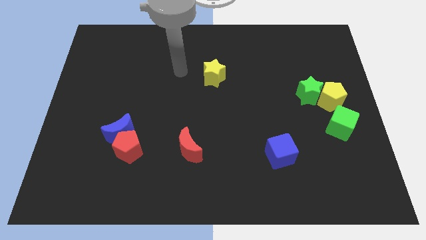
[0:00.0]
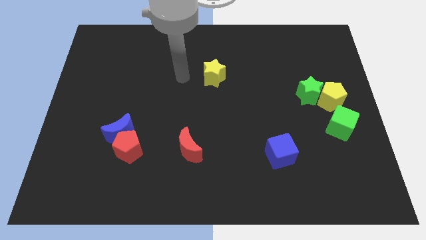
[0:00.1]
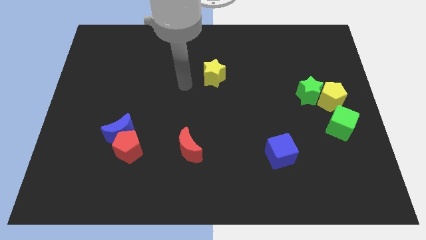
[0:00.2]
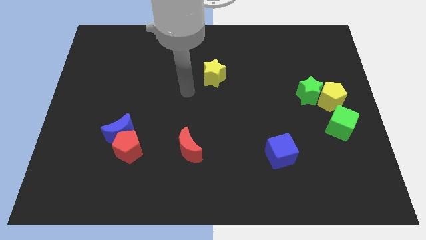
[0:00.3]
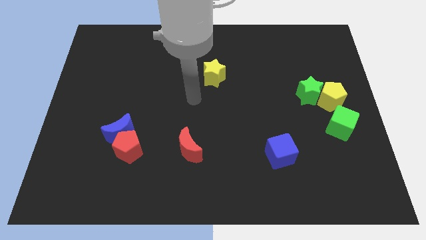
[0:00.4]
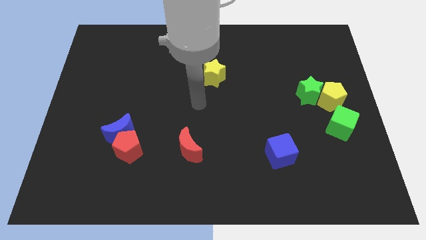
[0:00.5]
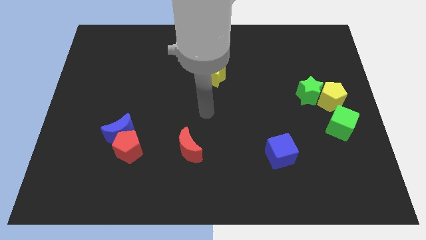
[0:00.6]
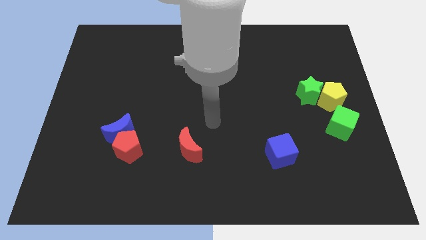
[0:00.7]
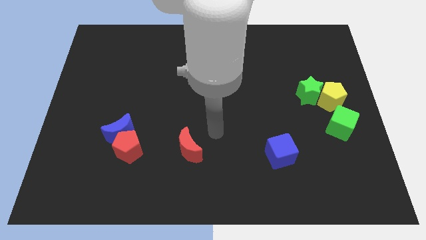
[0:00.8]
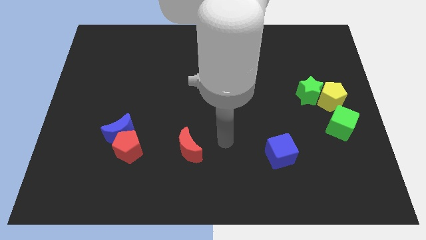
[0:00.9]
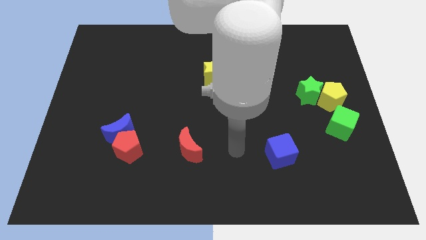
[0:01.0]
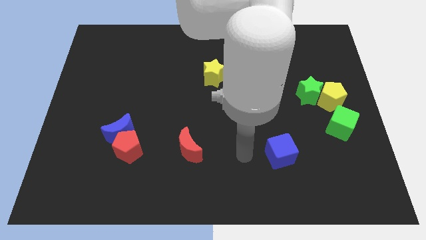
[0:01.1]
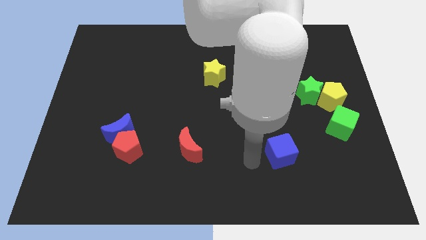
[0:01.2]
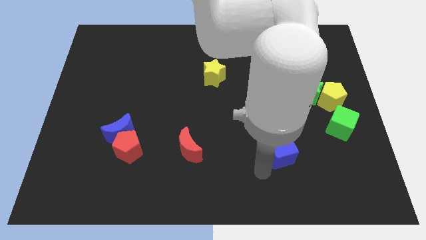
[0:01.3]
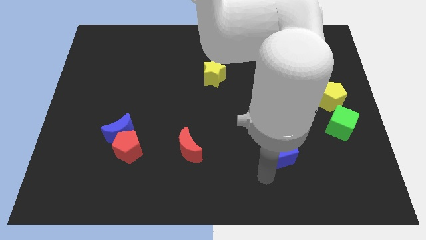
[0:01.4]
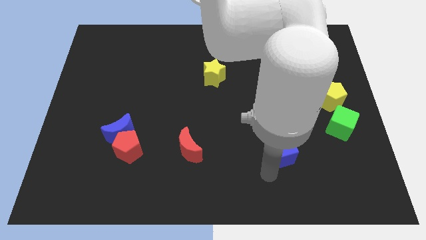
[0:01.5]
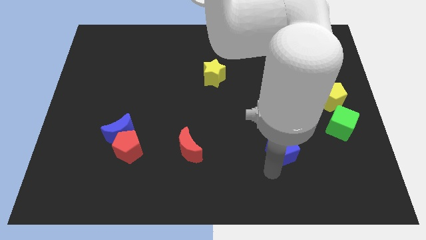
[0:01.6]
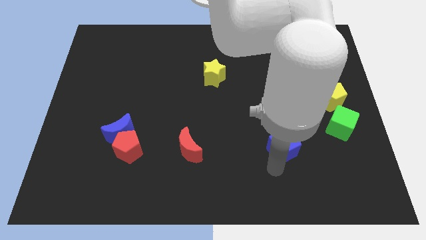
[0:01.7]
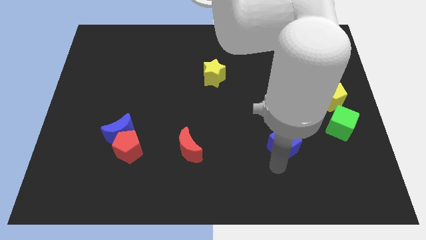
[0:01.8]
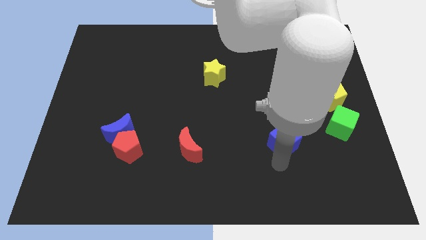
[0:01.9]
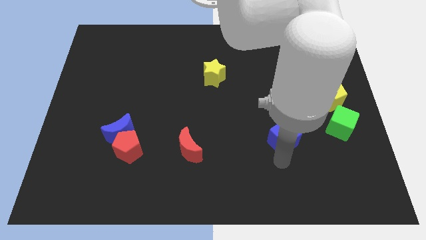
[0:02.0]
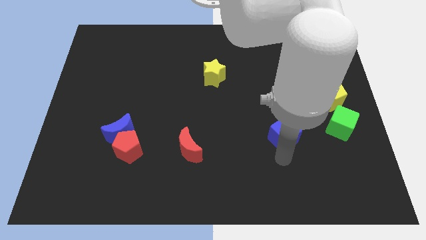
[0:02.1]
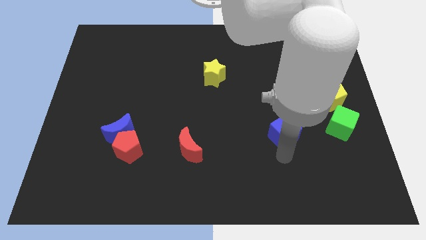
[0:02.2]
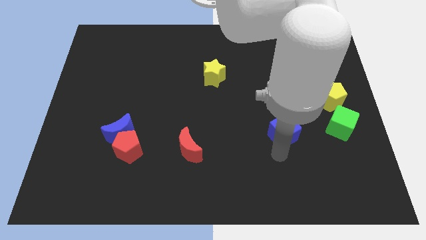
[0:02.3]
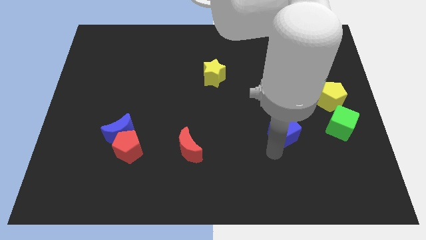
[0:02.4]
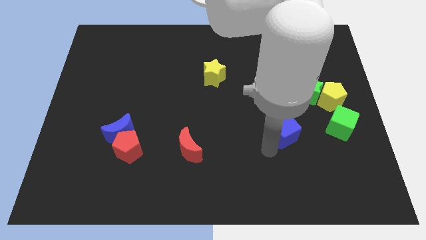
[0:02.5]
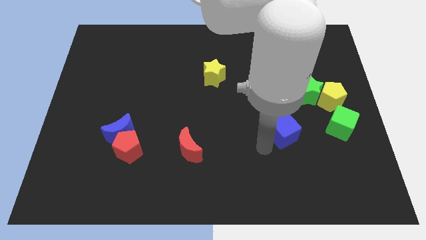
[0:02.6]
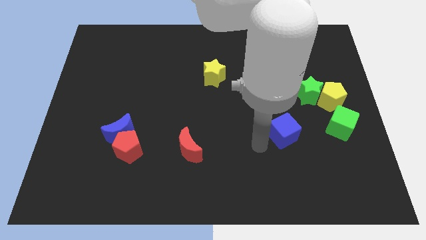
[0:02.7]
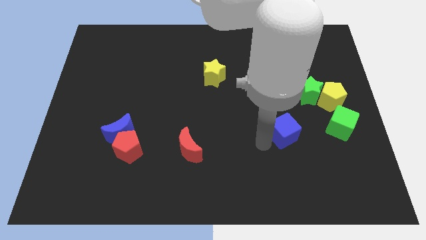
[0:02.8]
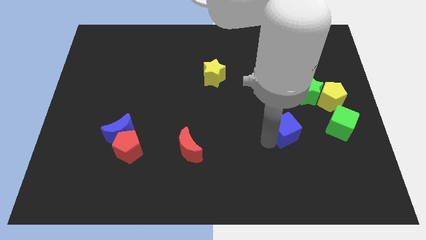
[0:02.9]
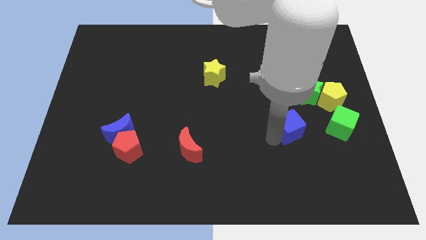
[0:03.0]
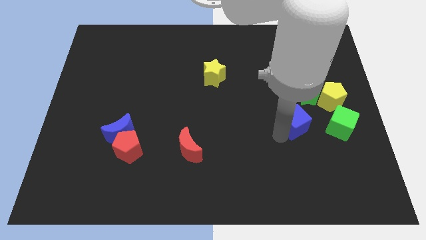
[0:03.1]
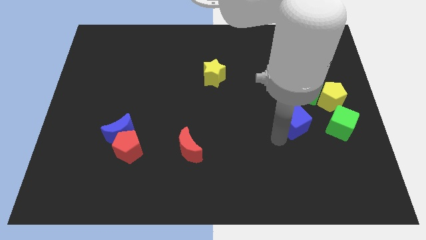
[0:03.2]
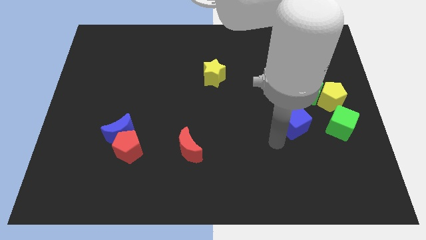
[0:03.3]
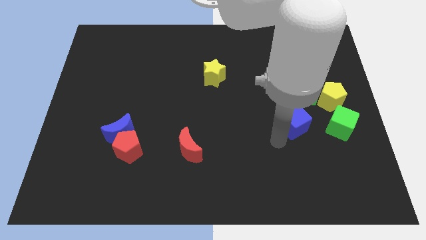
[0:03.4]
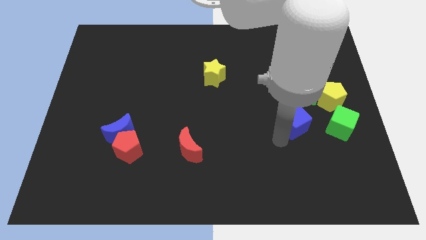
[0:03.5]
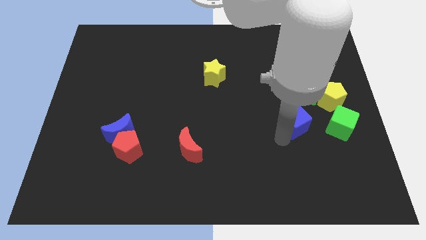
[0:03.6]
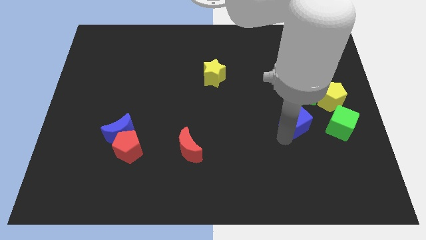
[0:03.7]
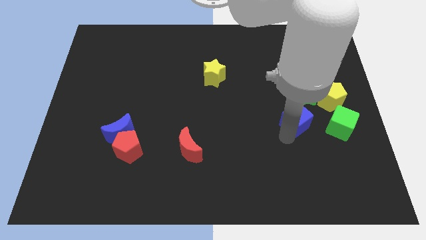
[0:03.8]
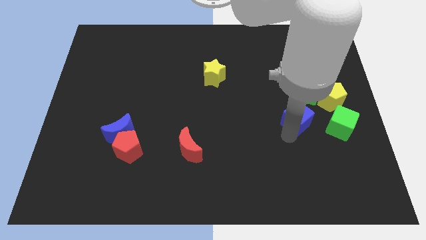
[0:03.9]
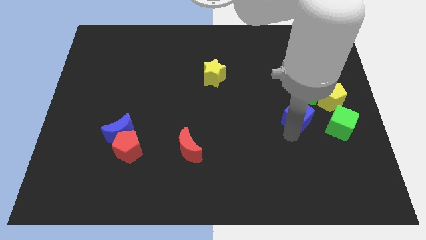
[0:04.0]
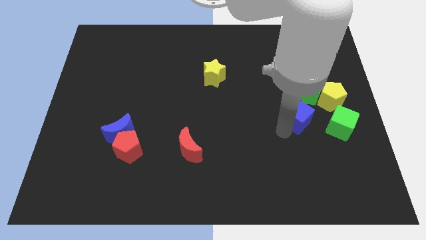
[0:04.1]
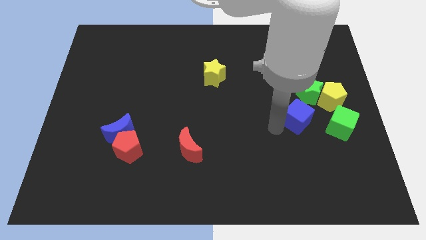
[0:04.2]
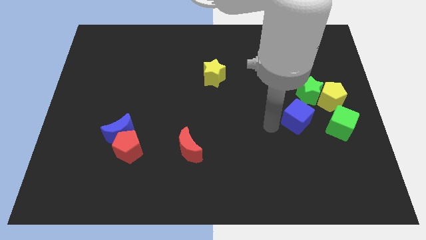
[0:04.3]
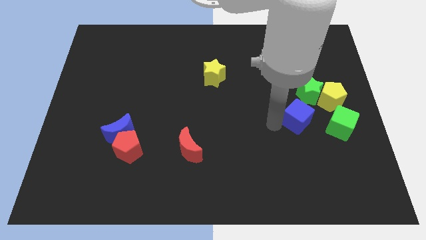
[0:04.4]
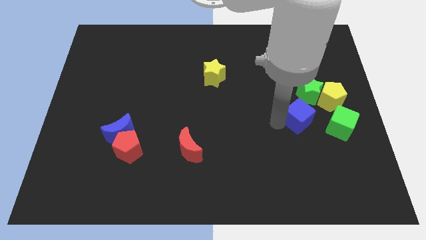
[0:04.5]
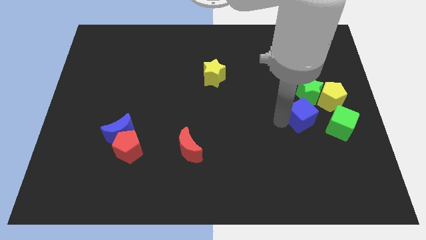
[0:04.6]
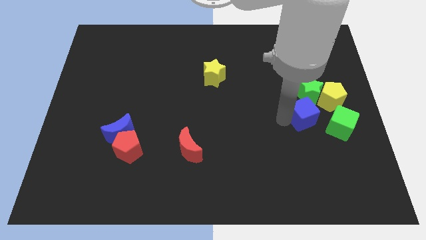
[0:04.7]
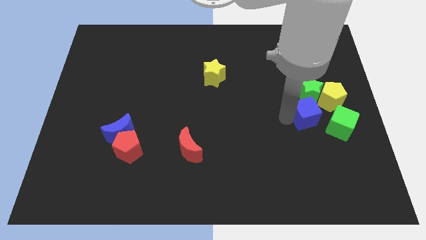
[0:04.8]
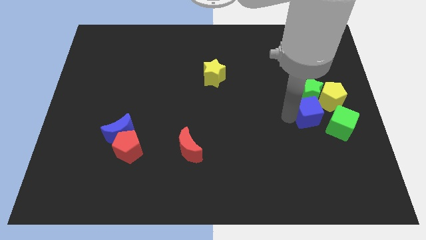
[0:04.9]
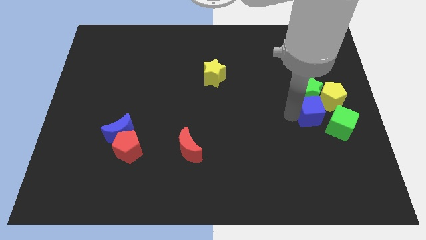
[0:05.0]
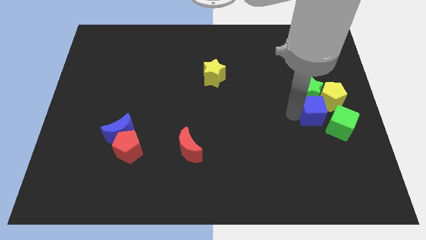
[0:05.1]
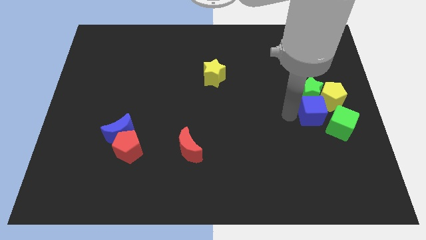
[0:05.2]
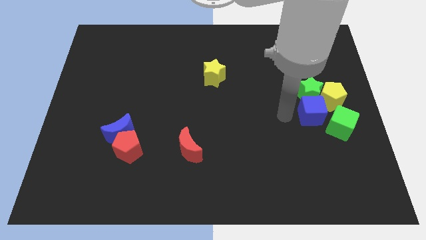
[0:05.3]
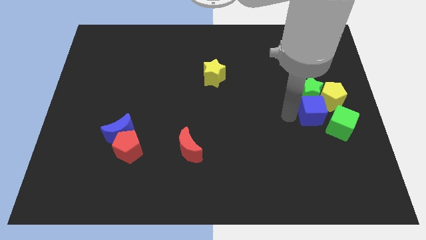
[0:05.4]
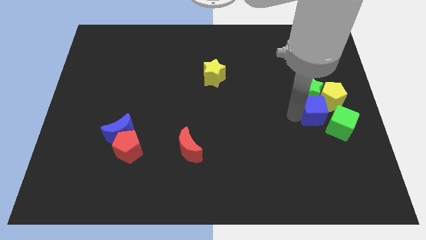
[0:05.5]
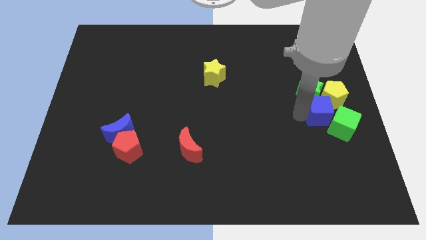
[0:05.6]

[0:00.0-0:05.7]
slide the blue cube close to the yellow pentagon

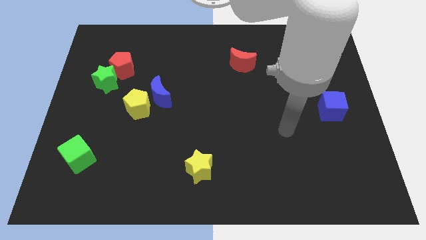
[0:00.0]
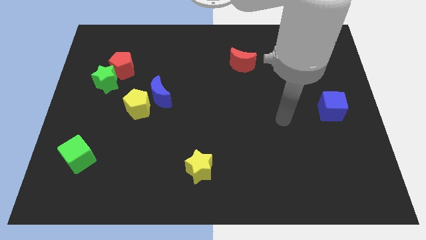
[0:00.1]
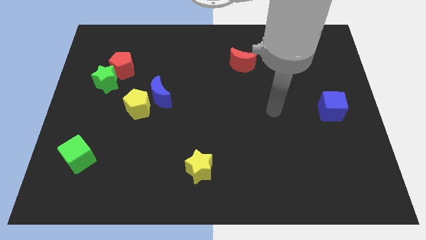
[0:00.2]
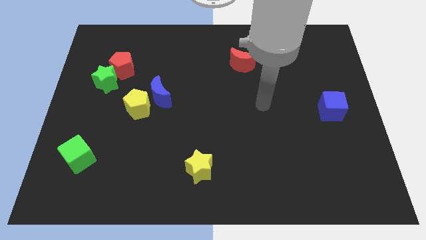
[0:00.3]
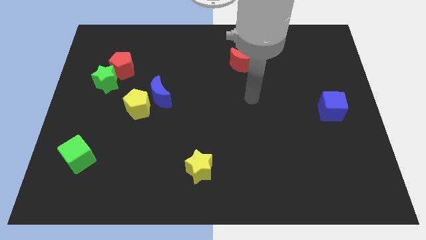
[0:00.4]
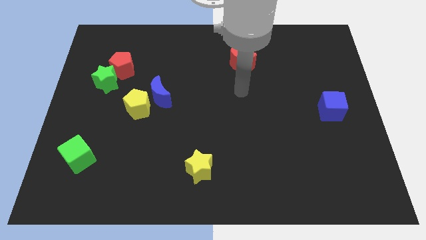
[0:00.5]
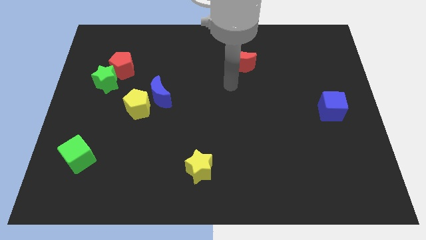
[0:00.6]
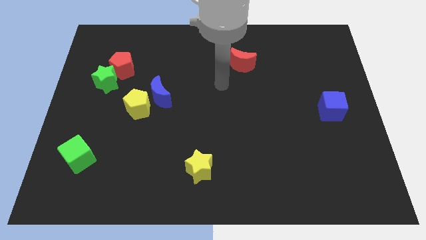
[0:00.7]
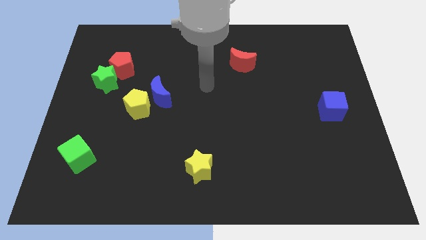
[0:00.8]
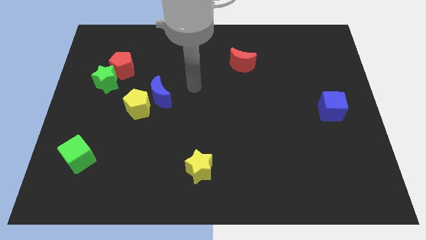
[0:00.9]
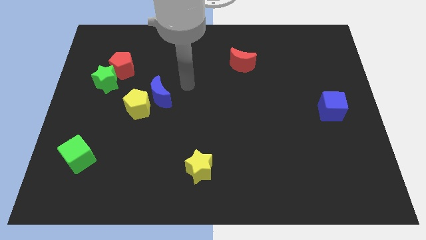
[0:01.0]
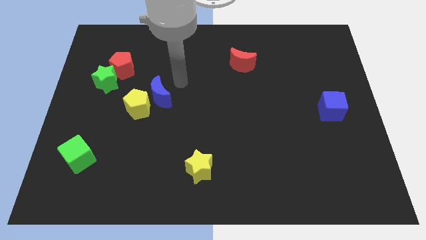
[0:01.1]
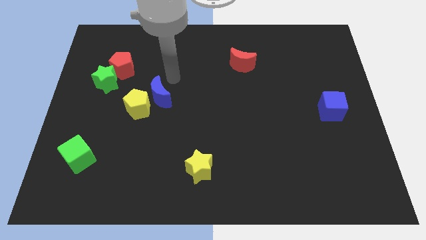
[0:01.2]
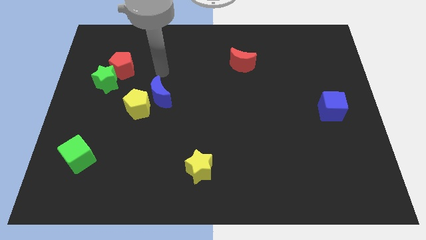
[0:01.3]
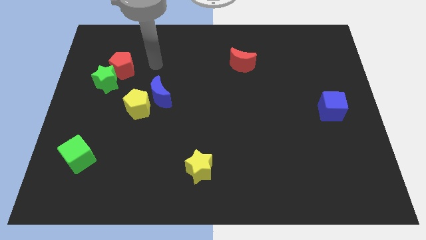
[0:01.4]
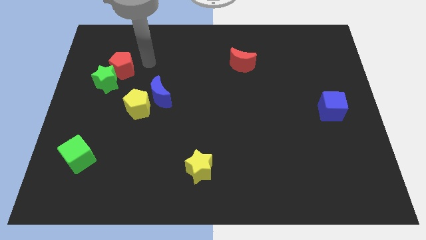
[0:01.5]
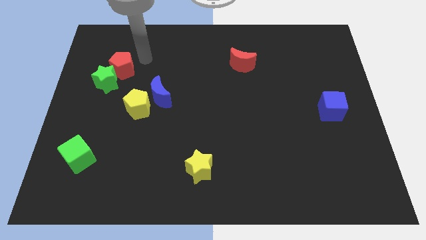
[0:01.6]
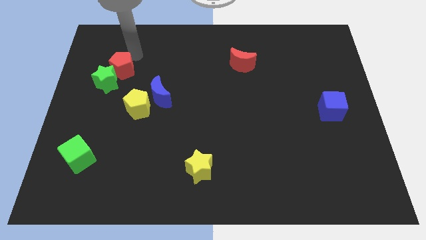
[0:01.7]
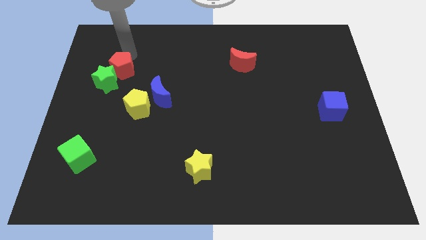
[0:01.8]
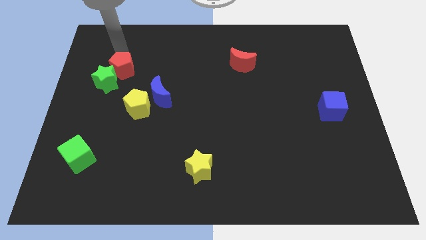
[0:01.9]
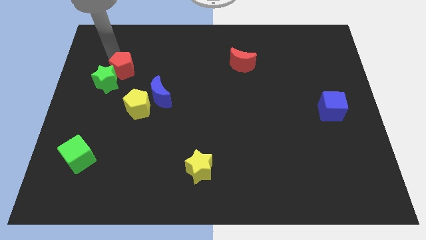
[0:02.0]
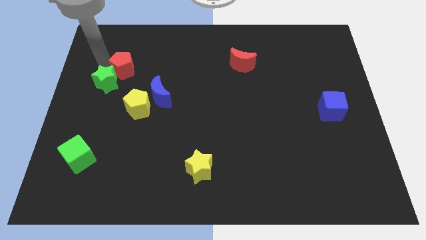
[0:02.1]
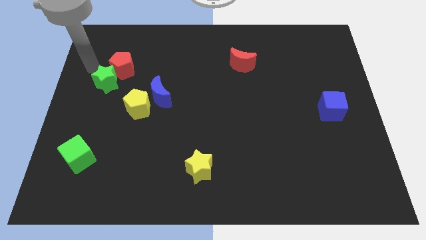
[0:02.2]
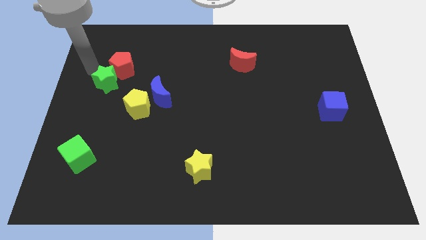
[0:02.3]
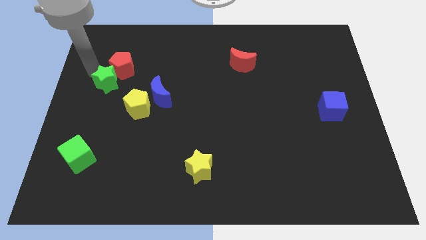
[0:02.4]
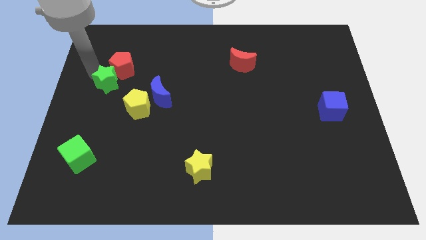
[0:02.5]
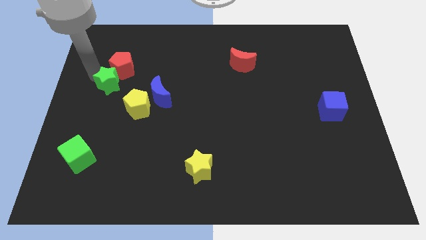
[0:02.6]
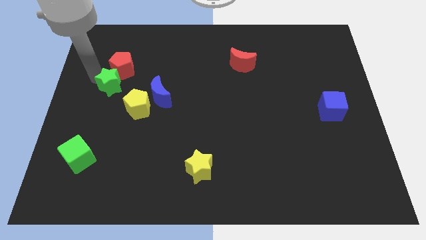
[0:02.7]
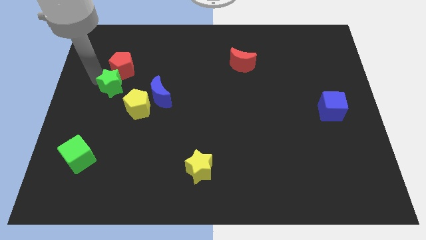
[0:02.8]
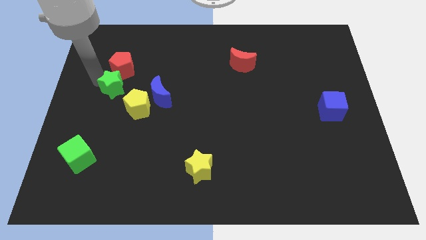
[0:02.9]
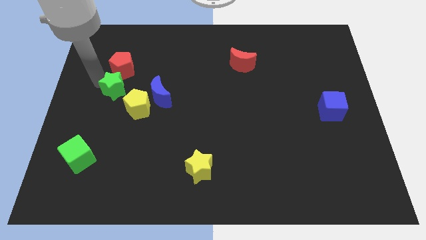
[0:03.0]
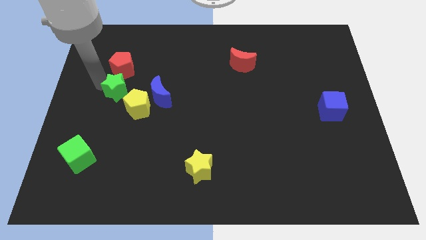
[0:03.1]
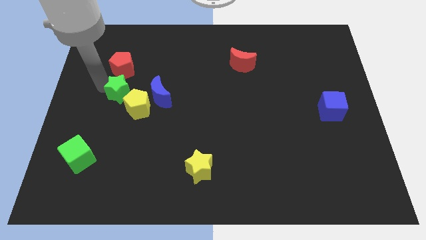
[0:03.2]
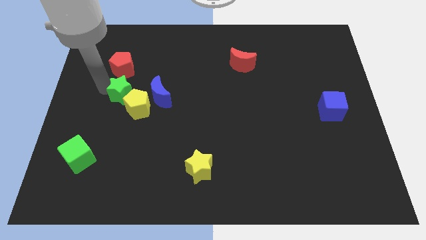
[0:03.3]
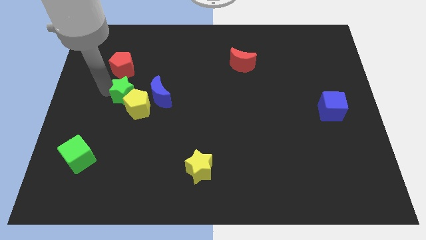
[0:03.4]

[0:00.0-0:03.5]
move the green star to the yellow pentagon
